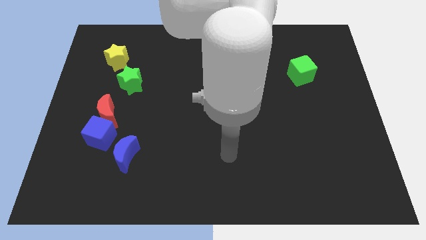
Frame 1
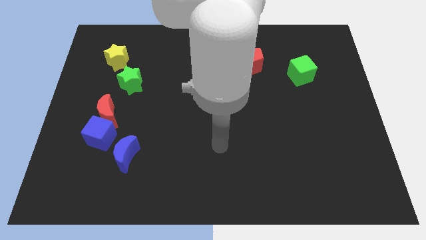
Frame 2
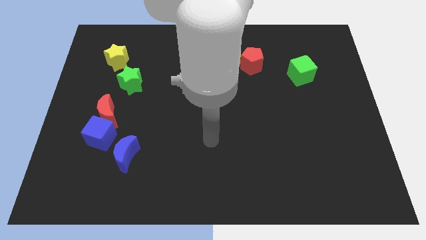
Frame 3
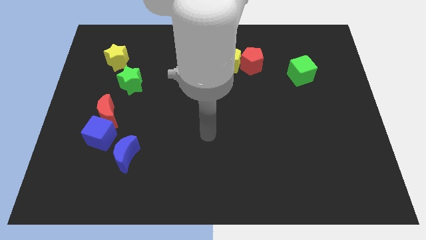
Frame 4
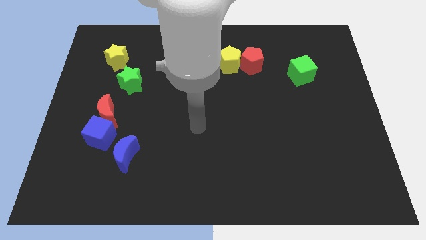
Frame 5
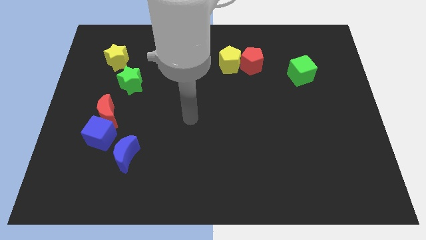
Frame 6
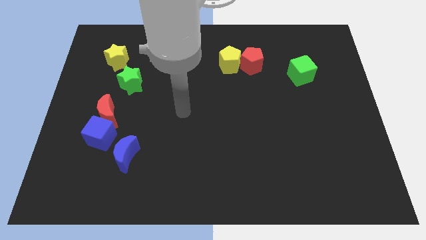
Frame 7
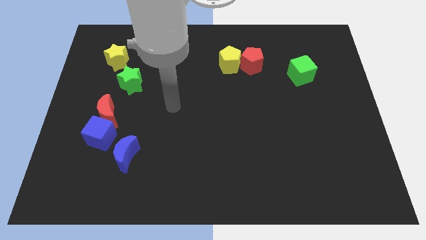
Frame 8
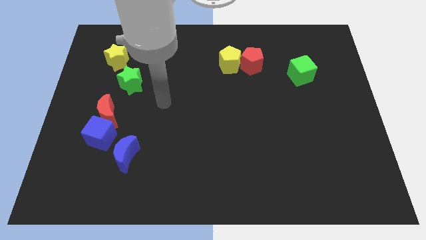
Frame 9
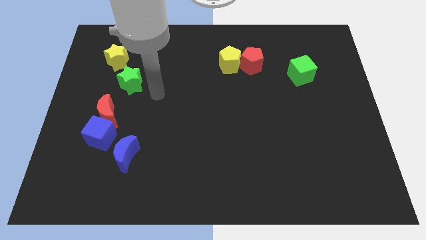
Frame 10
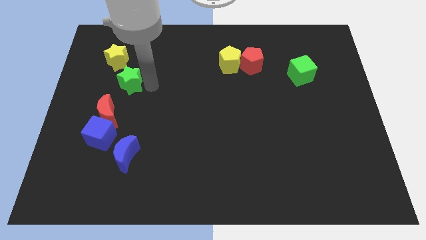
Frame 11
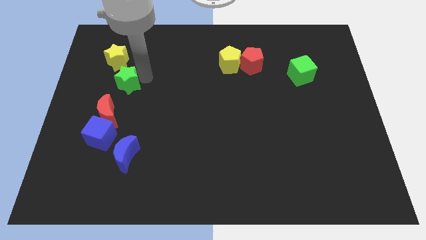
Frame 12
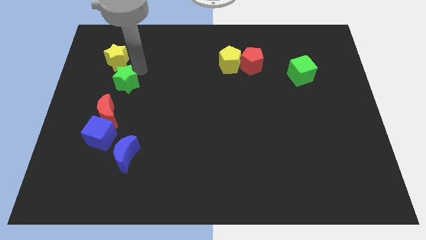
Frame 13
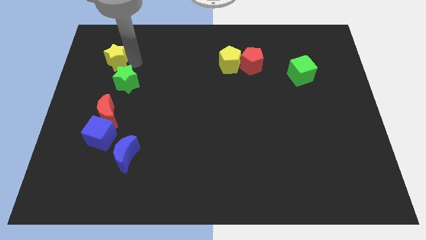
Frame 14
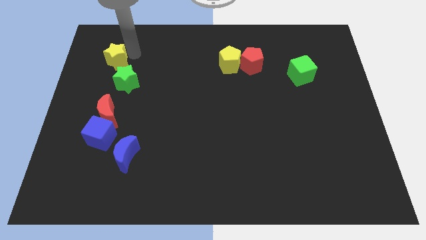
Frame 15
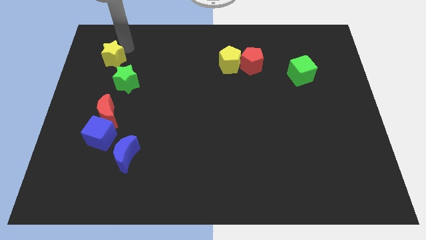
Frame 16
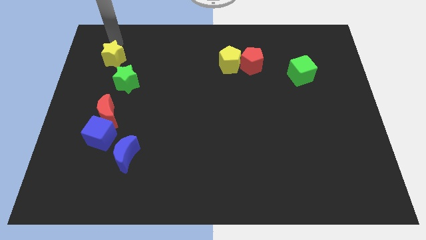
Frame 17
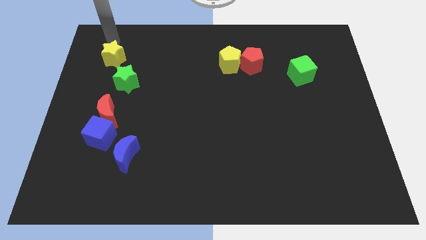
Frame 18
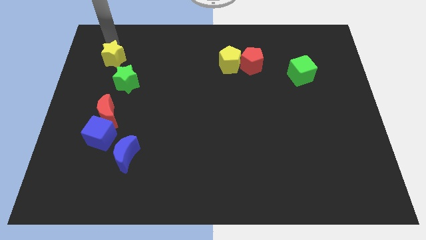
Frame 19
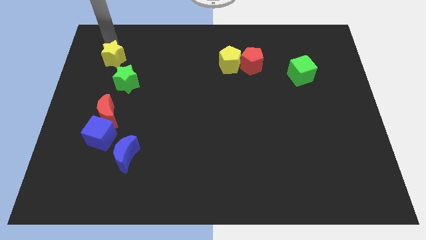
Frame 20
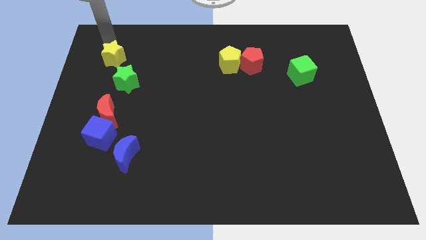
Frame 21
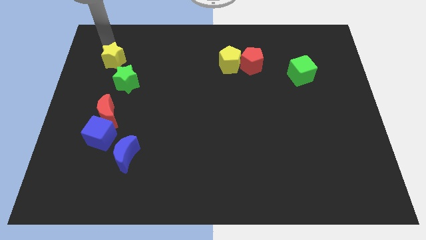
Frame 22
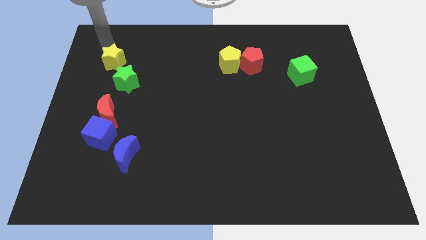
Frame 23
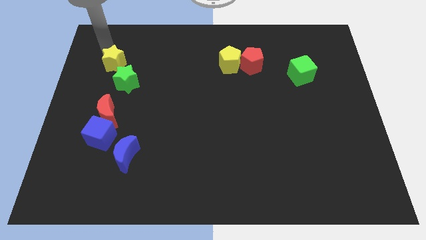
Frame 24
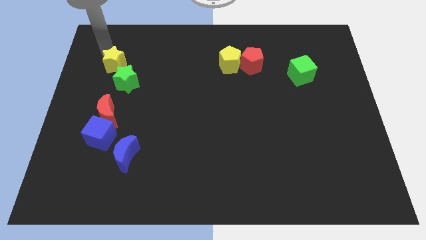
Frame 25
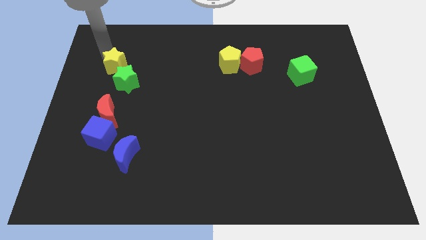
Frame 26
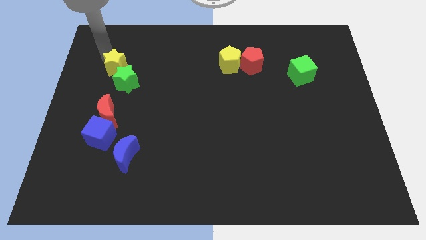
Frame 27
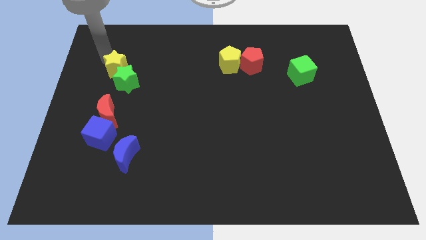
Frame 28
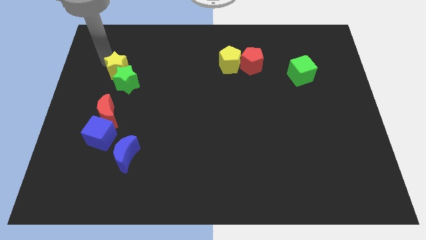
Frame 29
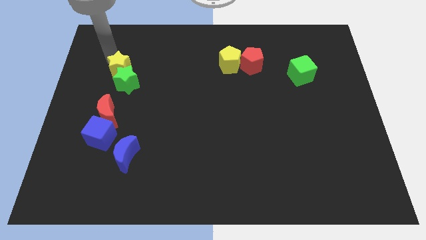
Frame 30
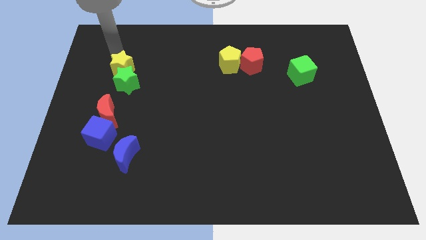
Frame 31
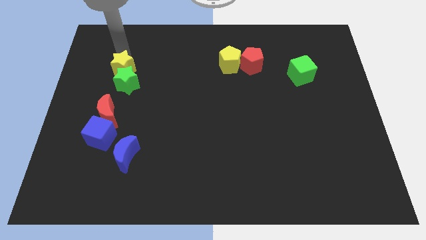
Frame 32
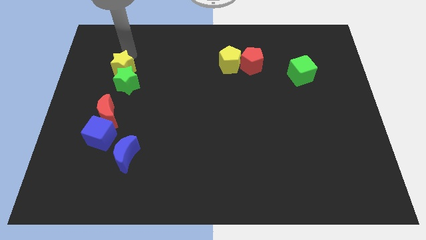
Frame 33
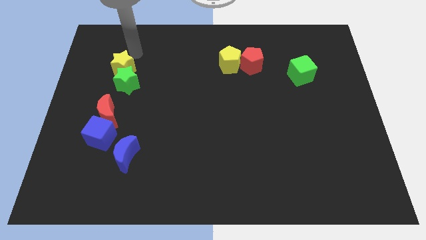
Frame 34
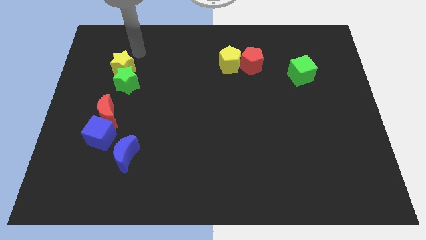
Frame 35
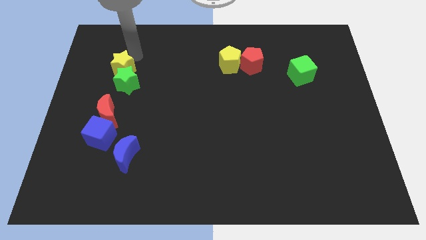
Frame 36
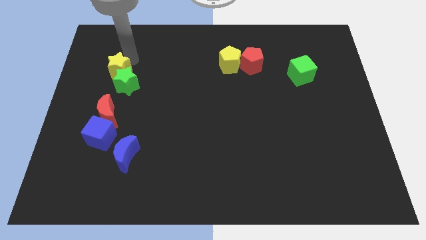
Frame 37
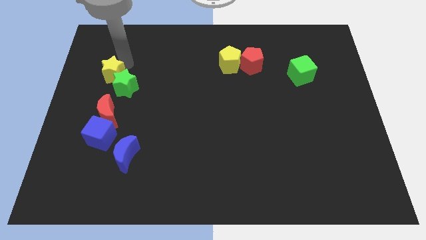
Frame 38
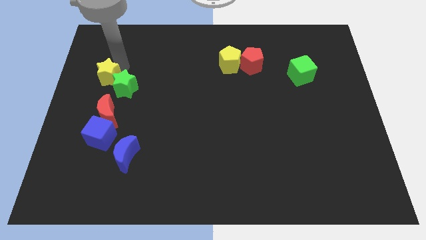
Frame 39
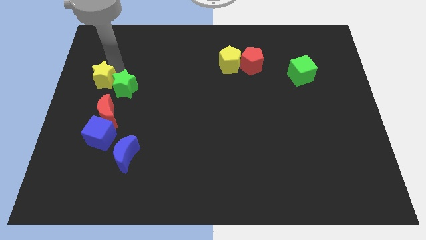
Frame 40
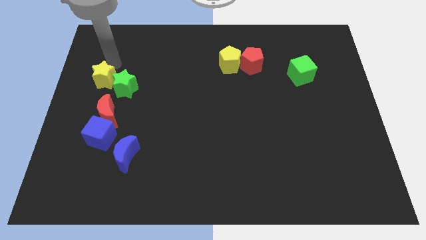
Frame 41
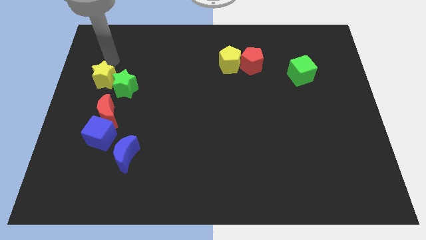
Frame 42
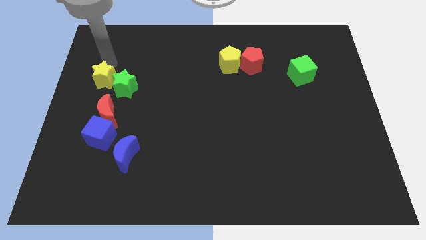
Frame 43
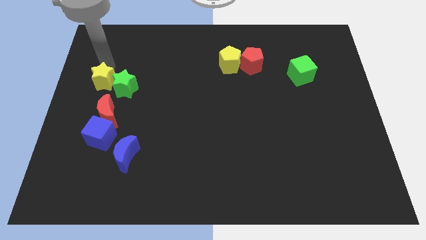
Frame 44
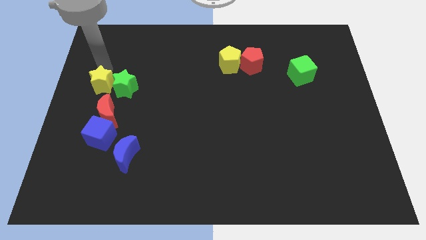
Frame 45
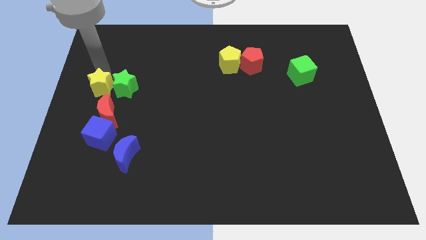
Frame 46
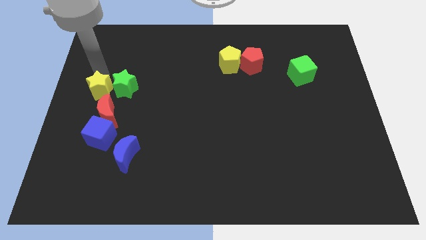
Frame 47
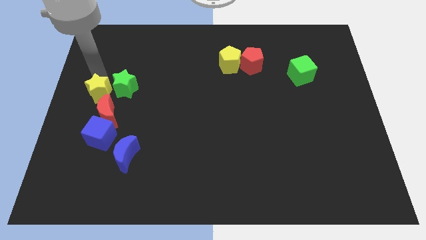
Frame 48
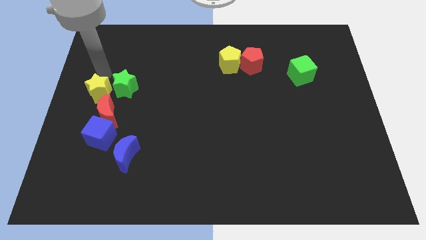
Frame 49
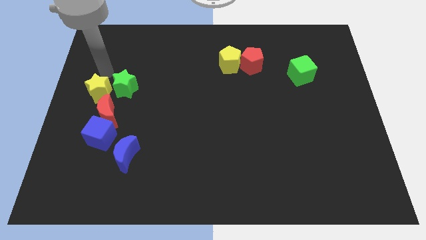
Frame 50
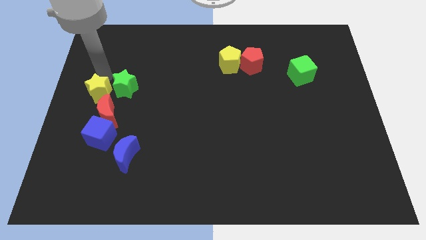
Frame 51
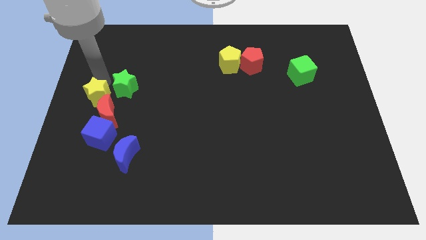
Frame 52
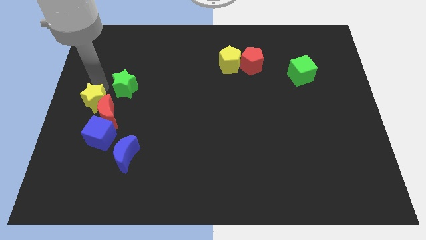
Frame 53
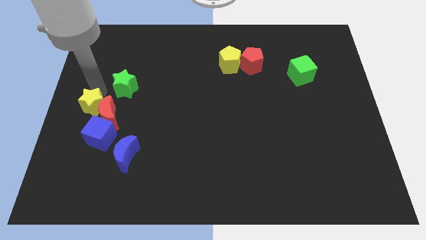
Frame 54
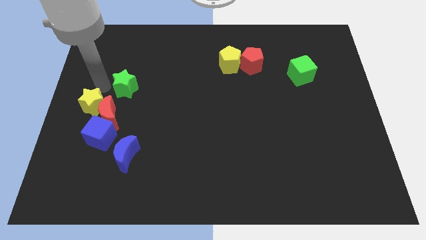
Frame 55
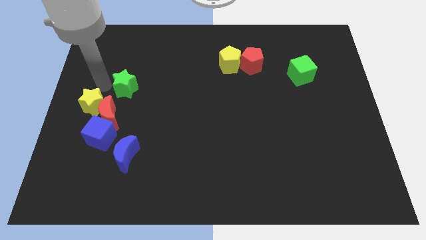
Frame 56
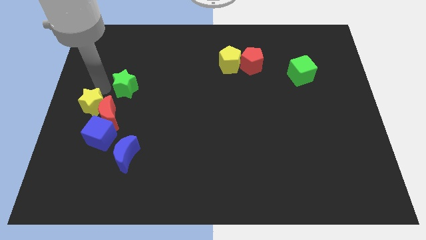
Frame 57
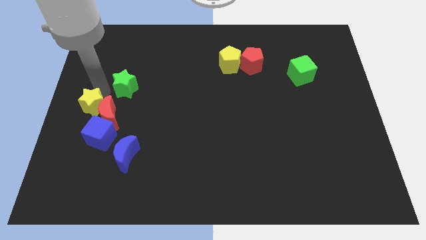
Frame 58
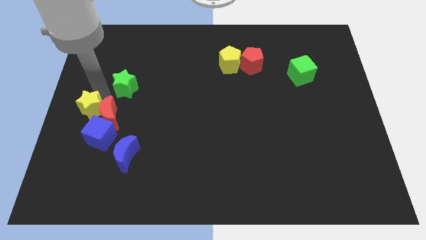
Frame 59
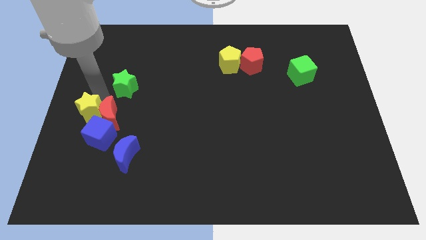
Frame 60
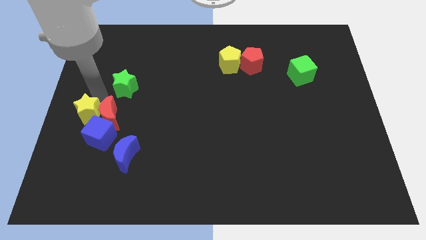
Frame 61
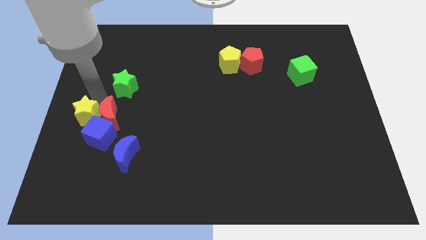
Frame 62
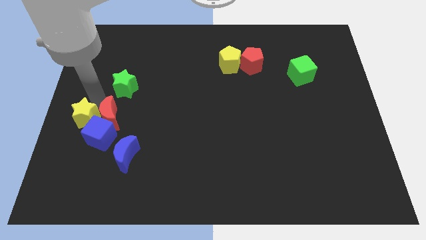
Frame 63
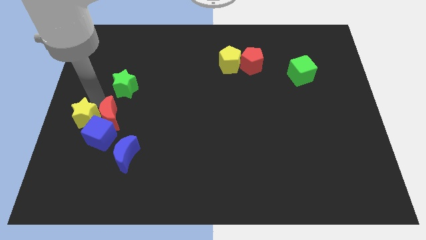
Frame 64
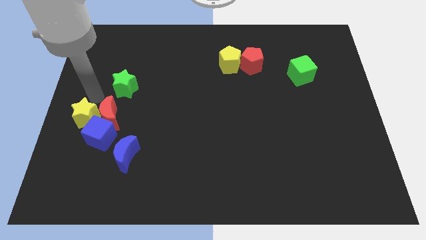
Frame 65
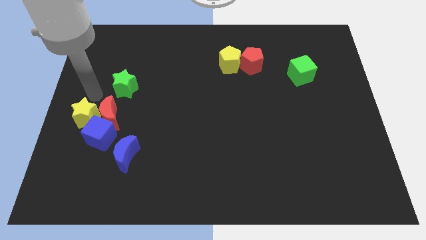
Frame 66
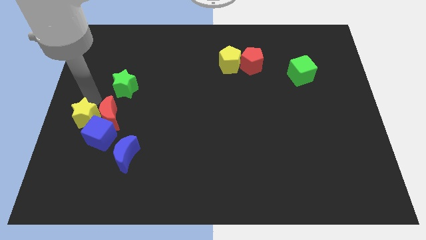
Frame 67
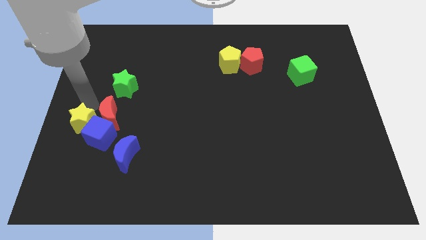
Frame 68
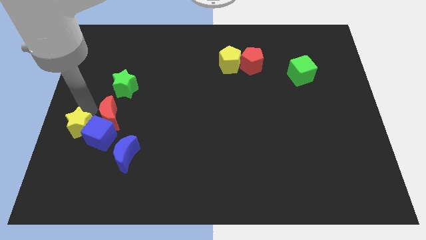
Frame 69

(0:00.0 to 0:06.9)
push the yellow star down

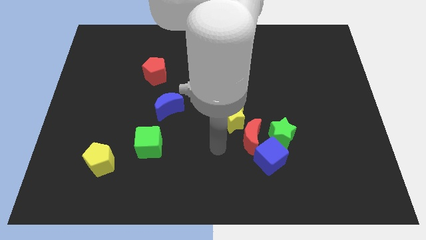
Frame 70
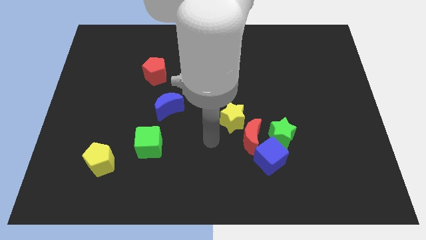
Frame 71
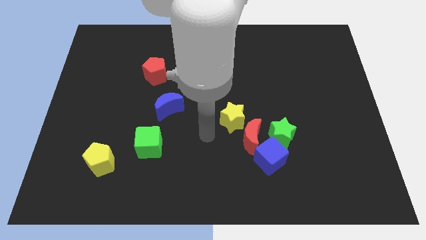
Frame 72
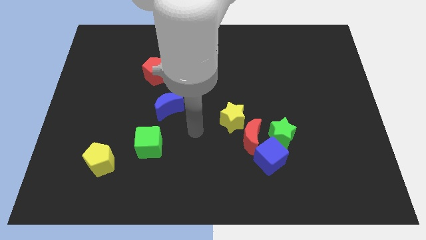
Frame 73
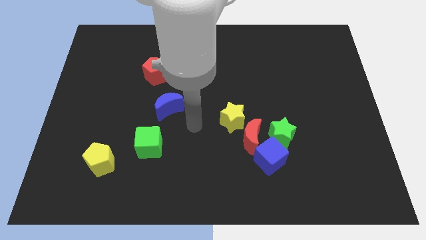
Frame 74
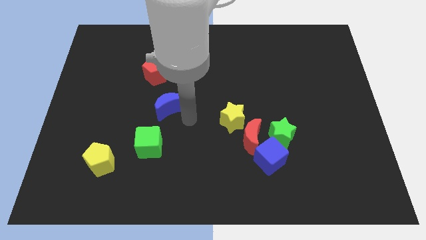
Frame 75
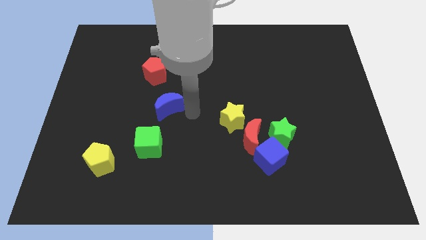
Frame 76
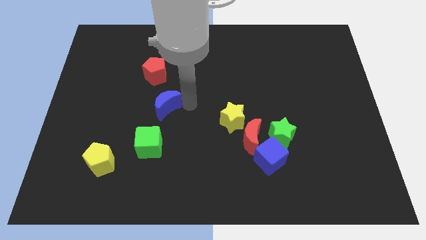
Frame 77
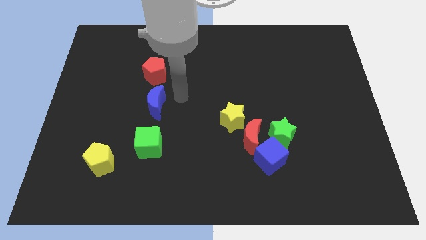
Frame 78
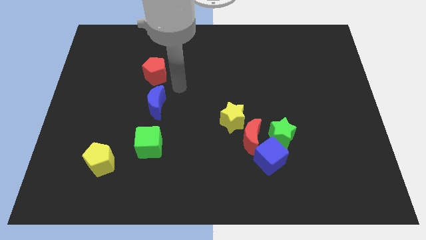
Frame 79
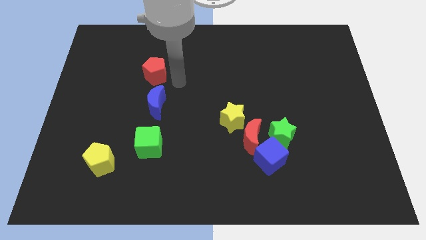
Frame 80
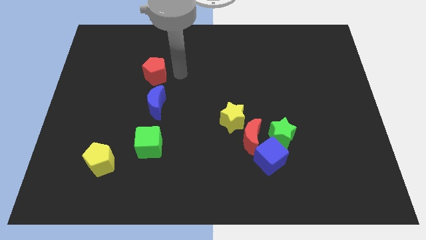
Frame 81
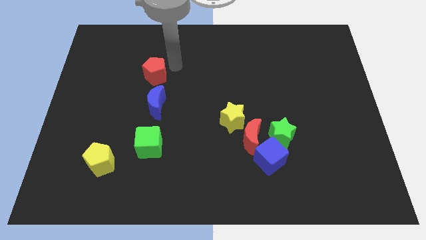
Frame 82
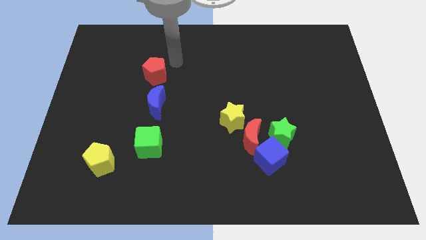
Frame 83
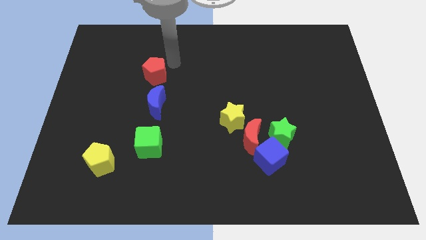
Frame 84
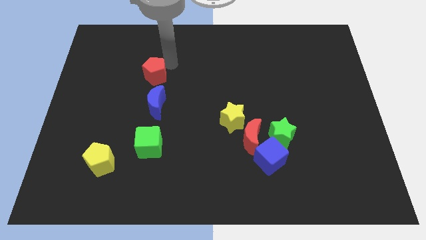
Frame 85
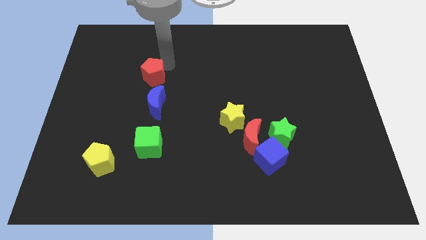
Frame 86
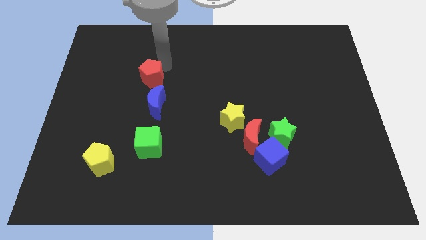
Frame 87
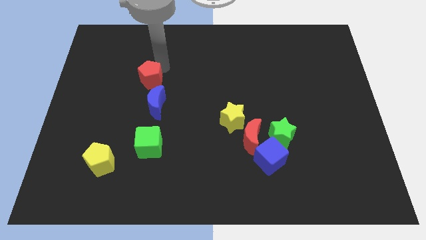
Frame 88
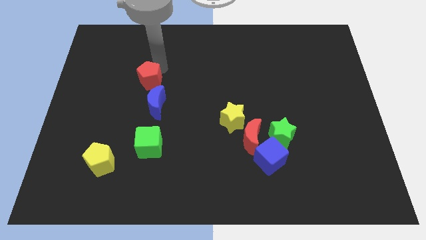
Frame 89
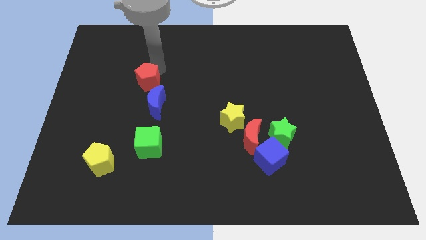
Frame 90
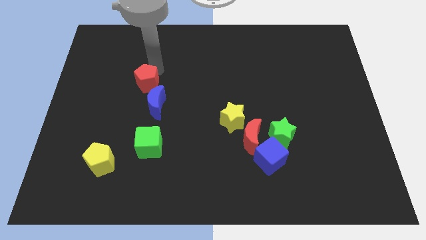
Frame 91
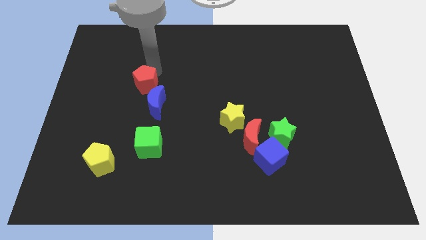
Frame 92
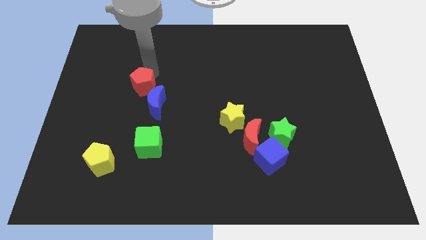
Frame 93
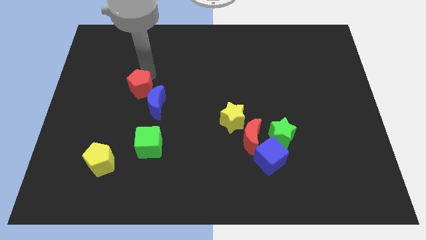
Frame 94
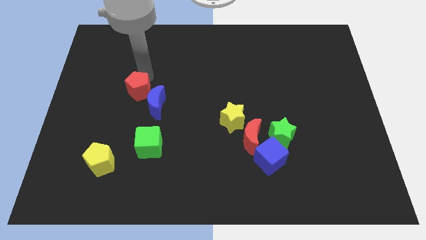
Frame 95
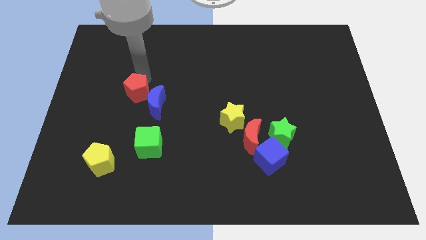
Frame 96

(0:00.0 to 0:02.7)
slide the red pentagon downwards and to the left a little
